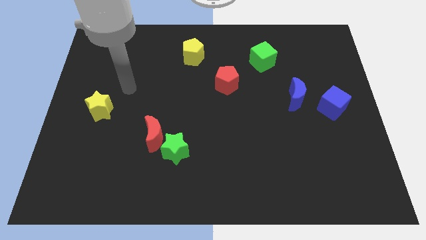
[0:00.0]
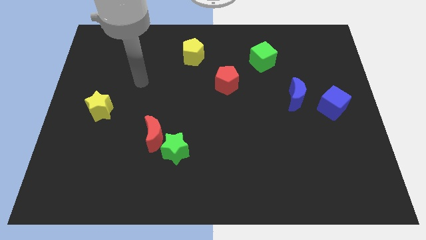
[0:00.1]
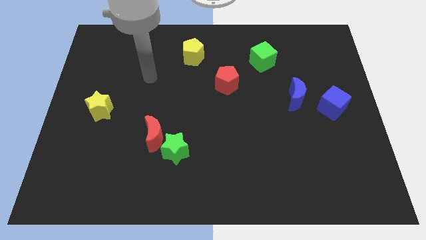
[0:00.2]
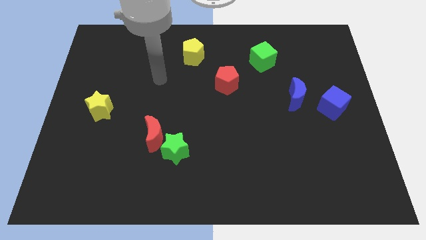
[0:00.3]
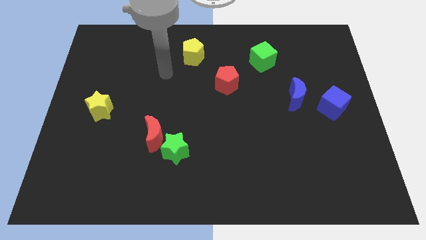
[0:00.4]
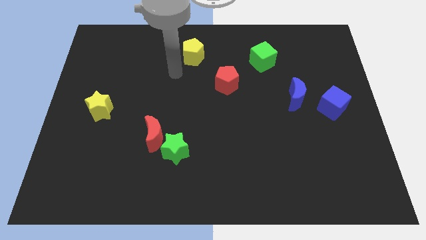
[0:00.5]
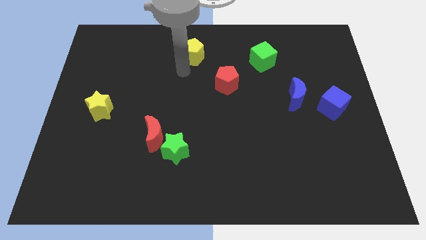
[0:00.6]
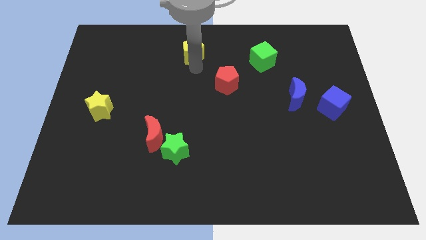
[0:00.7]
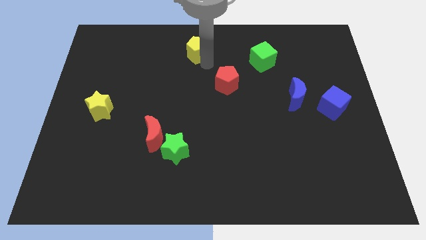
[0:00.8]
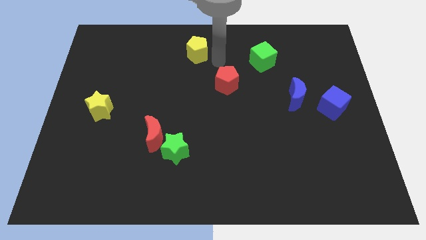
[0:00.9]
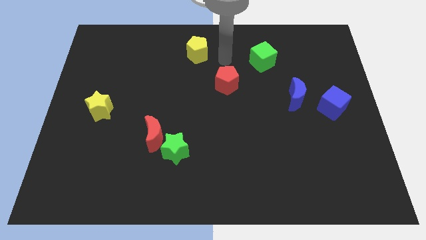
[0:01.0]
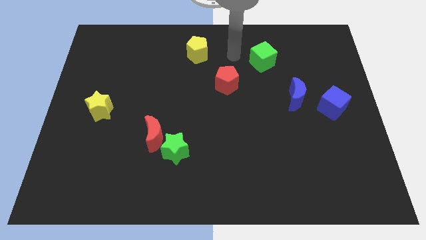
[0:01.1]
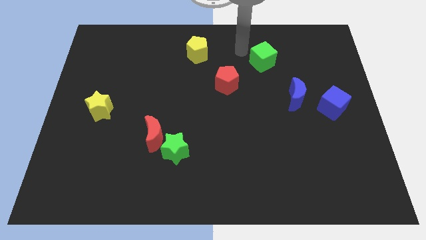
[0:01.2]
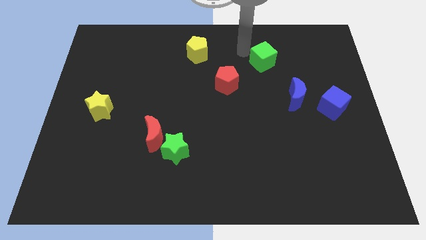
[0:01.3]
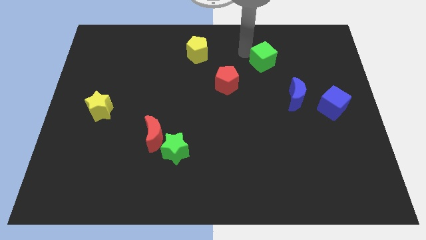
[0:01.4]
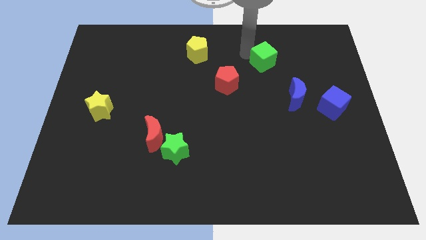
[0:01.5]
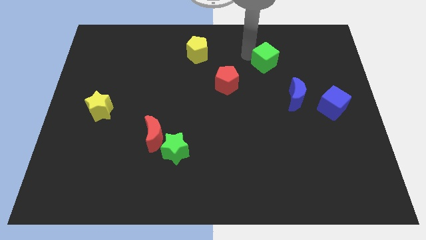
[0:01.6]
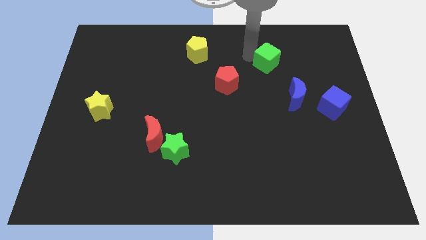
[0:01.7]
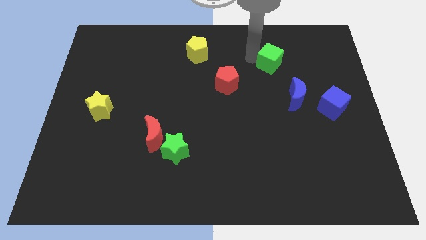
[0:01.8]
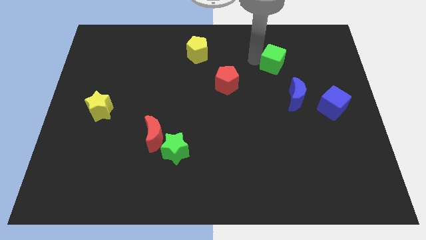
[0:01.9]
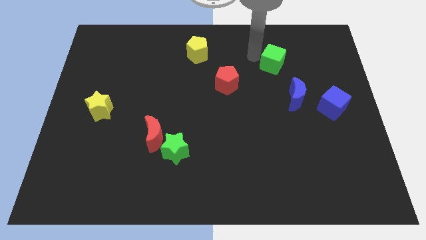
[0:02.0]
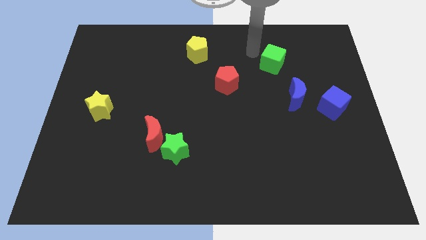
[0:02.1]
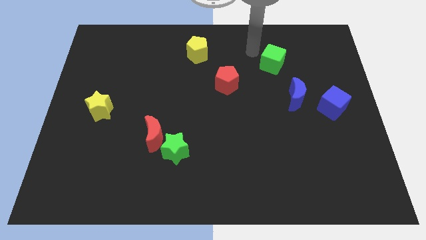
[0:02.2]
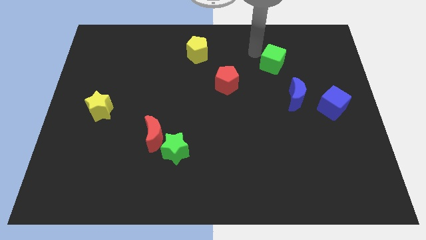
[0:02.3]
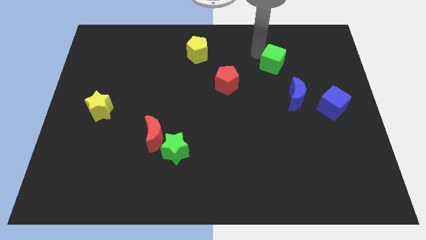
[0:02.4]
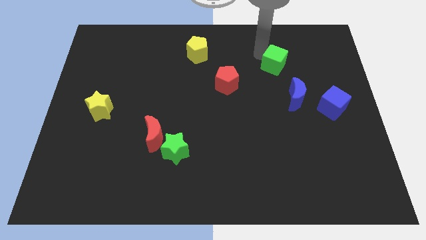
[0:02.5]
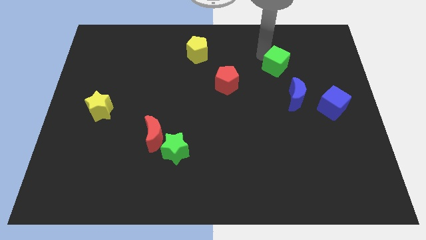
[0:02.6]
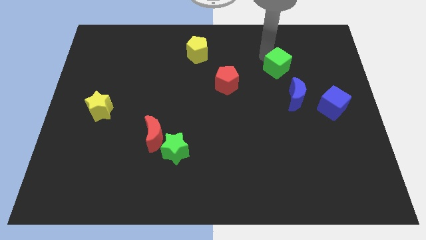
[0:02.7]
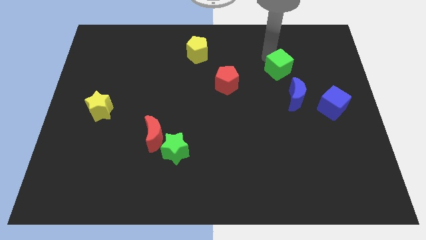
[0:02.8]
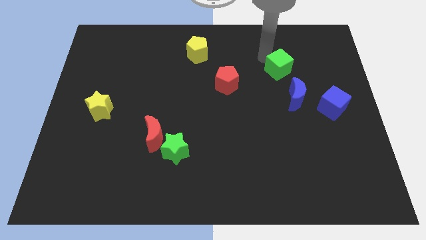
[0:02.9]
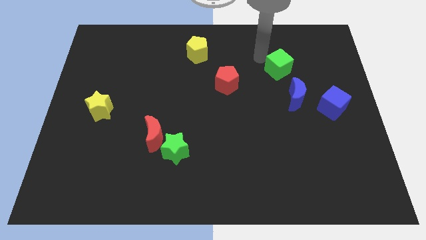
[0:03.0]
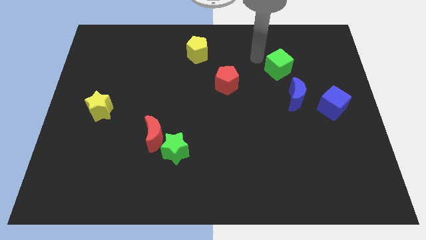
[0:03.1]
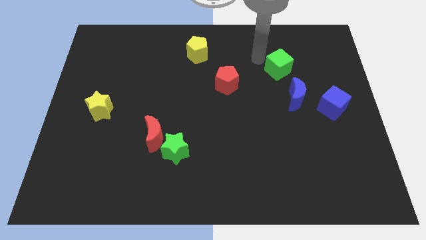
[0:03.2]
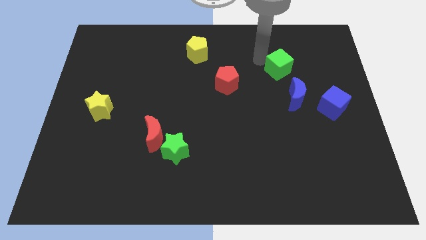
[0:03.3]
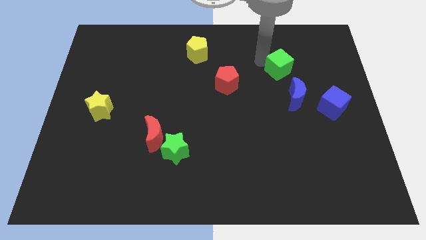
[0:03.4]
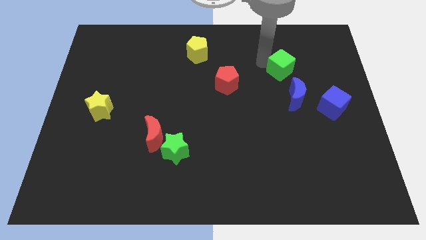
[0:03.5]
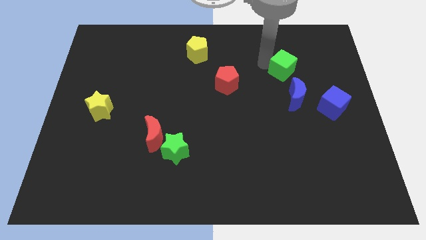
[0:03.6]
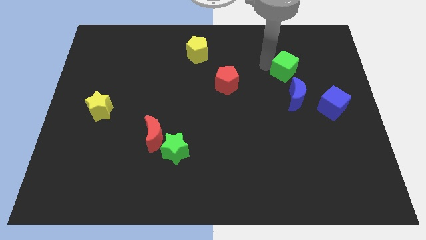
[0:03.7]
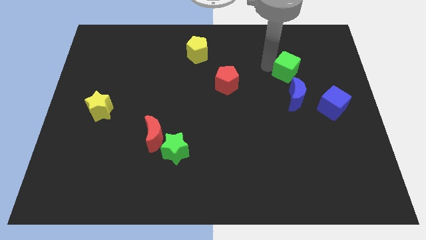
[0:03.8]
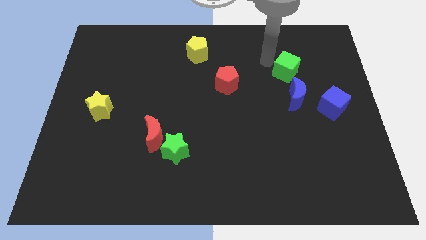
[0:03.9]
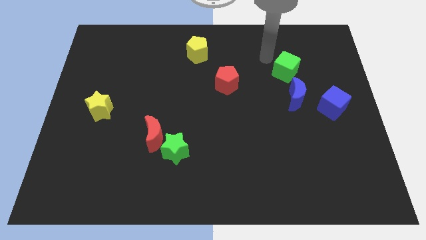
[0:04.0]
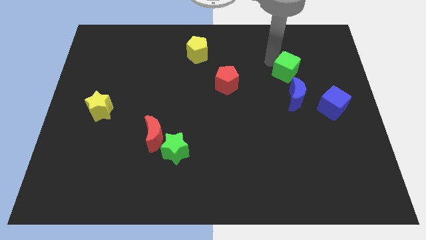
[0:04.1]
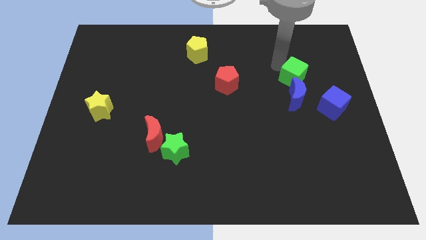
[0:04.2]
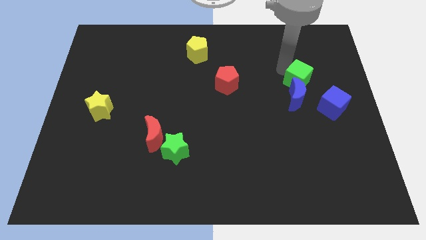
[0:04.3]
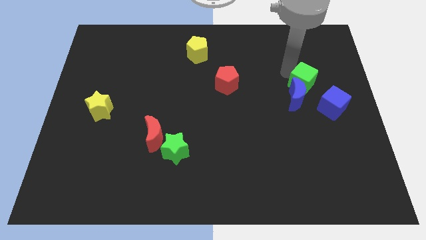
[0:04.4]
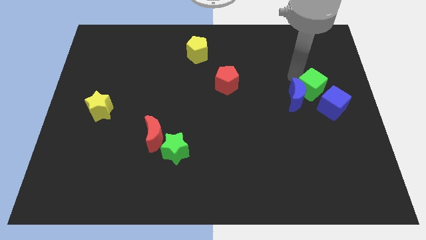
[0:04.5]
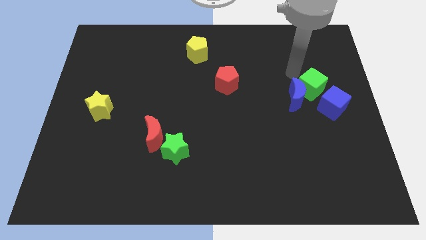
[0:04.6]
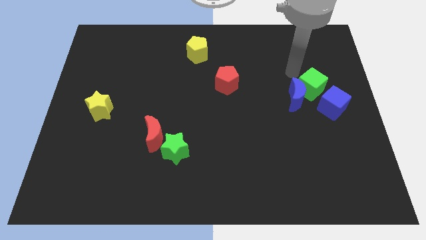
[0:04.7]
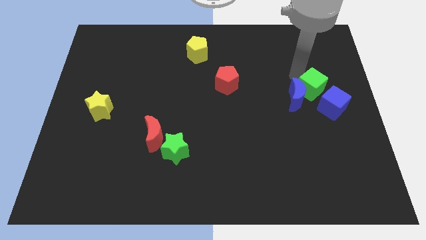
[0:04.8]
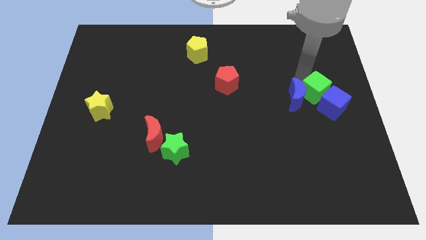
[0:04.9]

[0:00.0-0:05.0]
push the green cube next to the blue cube

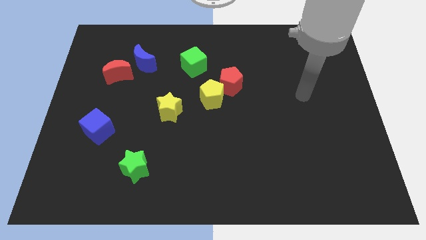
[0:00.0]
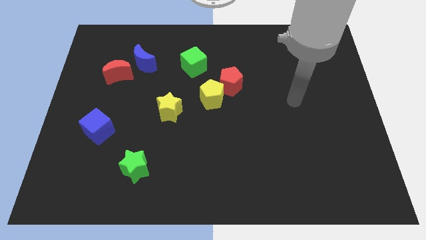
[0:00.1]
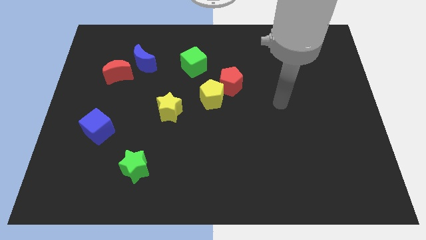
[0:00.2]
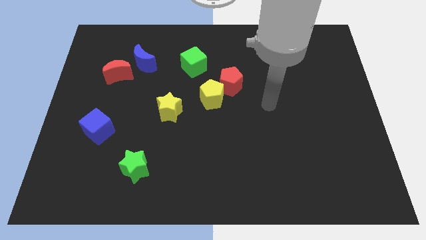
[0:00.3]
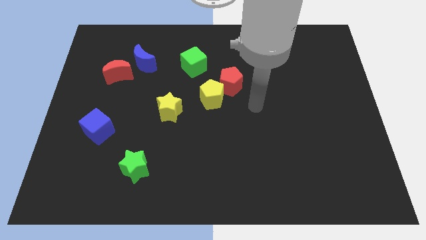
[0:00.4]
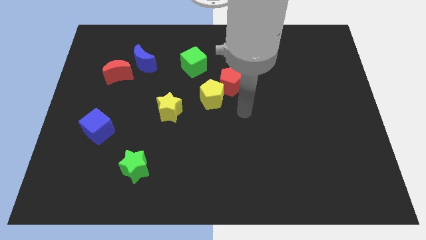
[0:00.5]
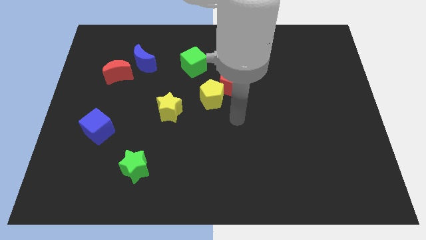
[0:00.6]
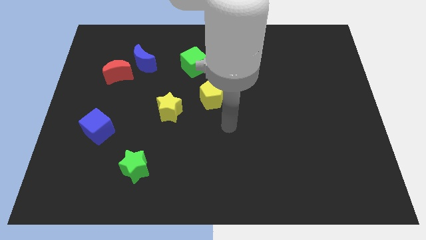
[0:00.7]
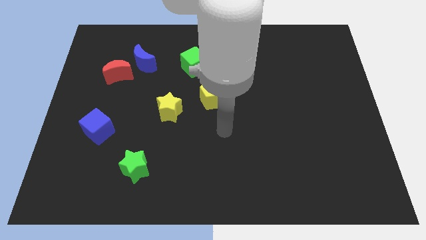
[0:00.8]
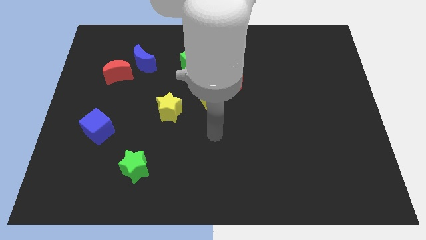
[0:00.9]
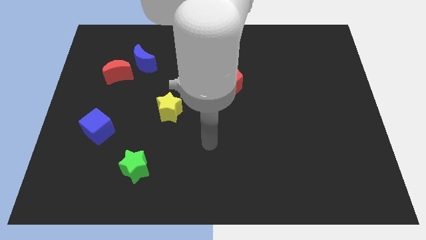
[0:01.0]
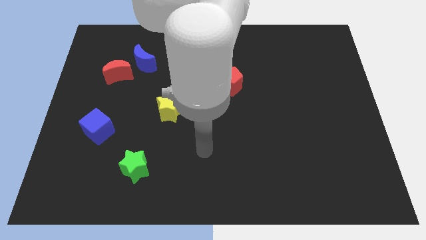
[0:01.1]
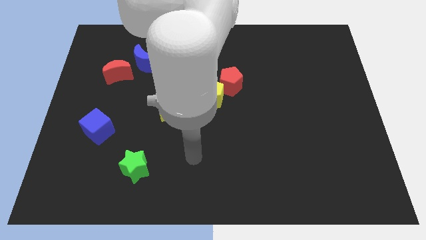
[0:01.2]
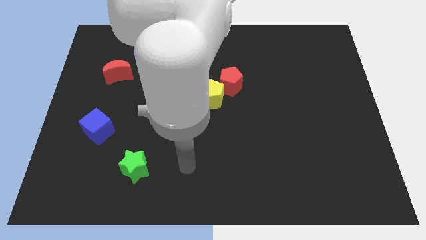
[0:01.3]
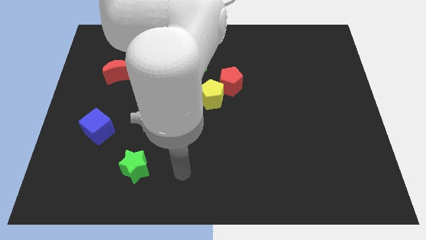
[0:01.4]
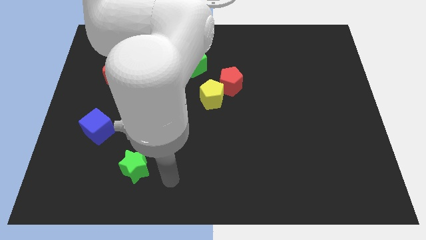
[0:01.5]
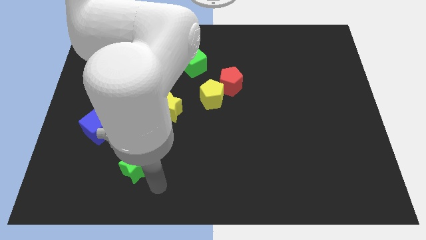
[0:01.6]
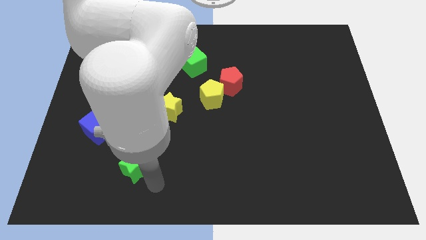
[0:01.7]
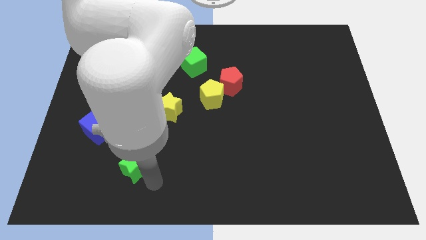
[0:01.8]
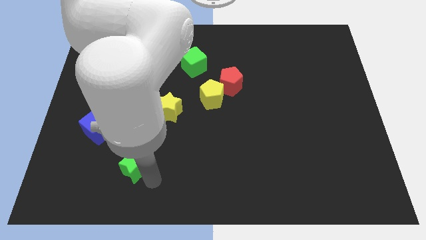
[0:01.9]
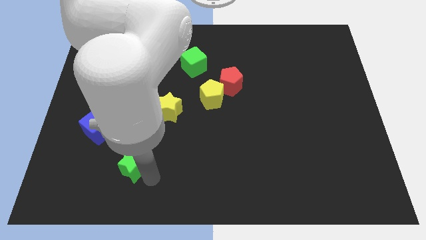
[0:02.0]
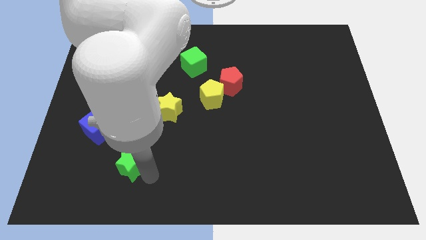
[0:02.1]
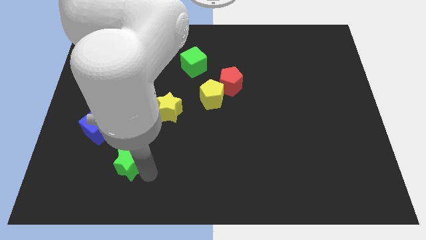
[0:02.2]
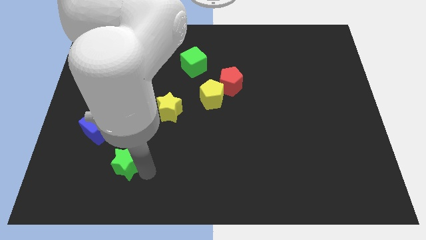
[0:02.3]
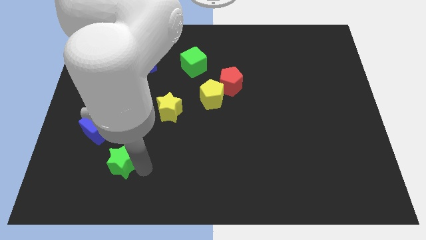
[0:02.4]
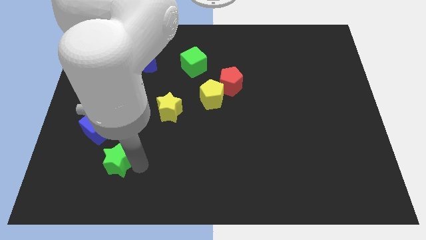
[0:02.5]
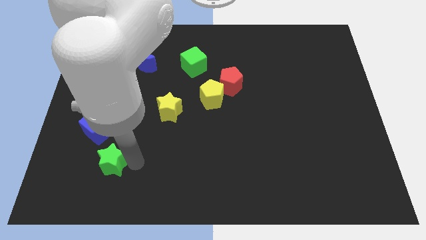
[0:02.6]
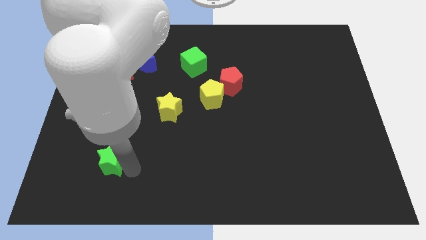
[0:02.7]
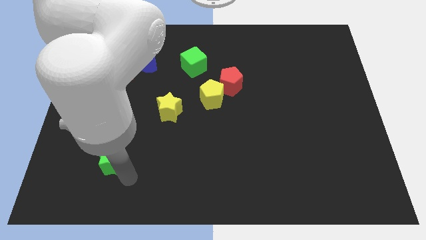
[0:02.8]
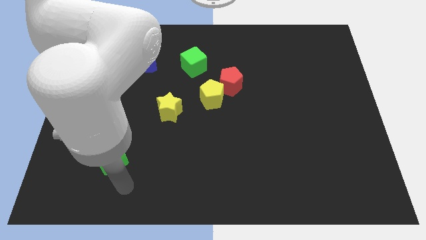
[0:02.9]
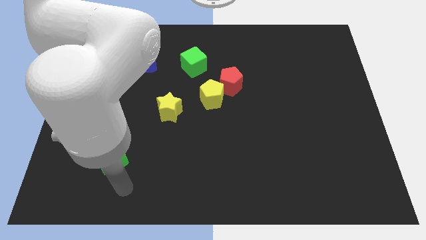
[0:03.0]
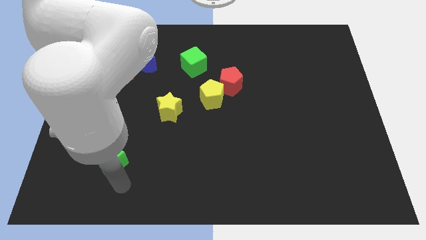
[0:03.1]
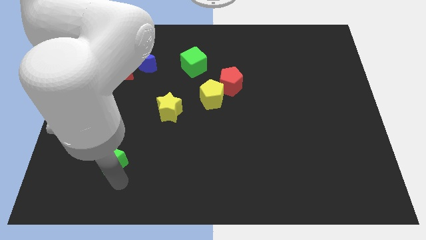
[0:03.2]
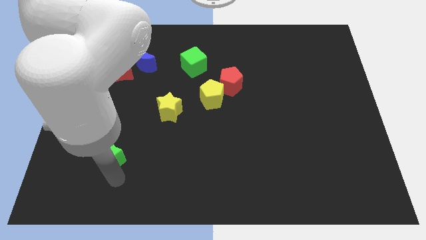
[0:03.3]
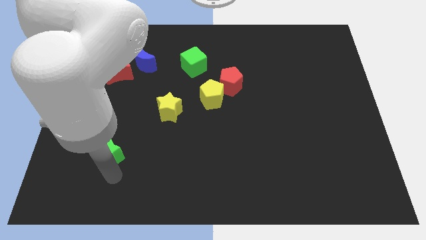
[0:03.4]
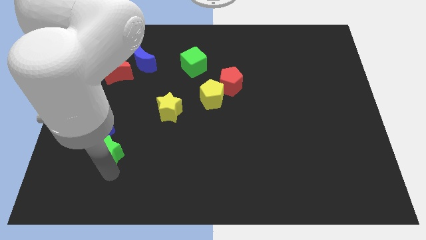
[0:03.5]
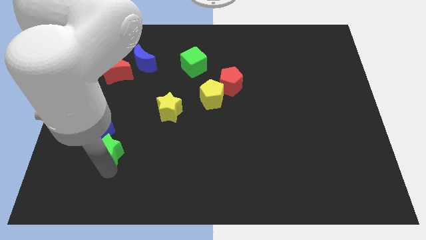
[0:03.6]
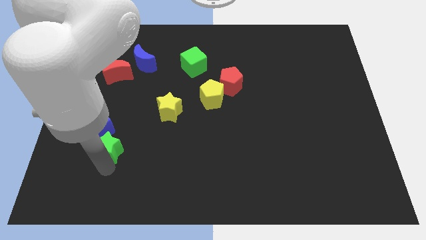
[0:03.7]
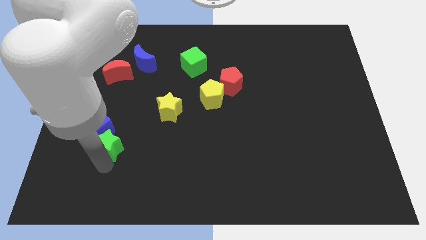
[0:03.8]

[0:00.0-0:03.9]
slide the green star towards the blue cube
